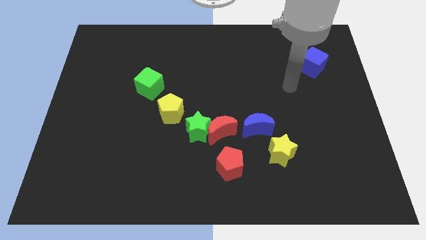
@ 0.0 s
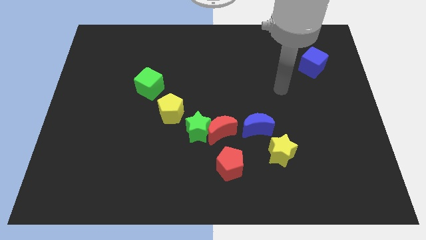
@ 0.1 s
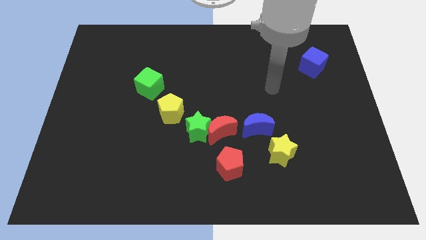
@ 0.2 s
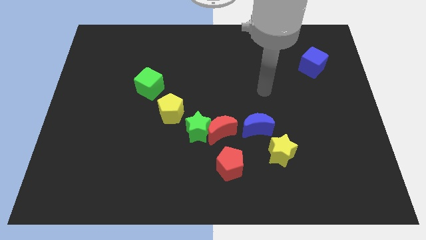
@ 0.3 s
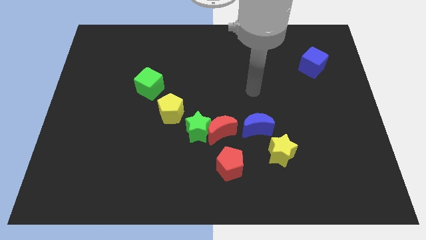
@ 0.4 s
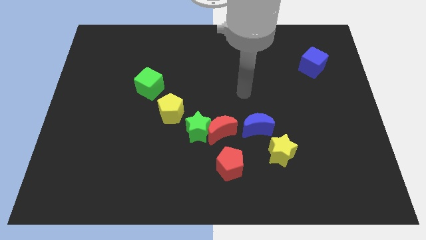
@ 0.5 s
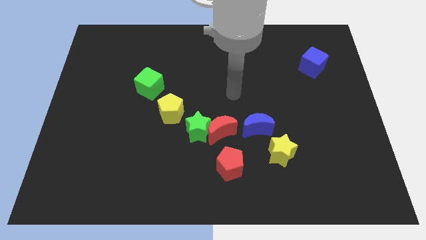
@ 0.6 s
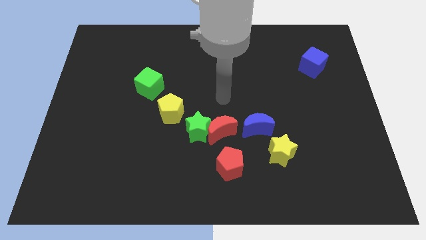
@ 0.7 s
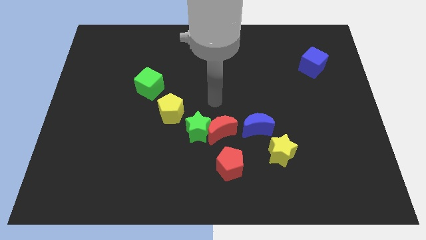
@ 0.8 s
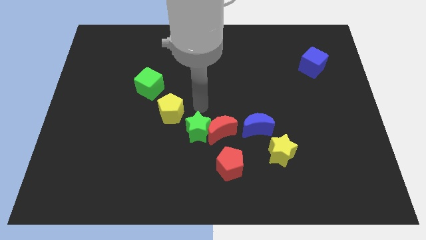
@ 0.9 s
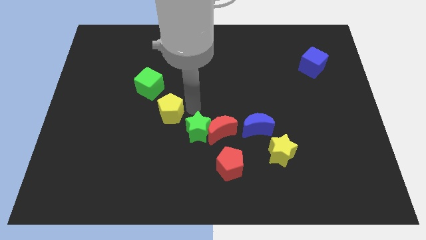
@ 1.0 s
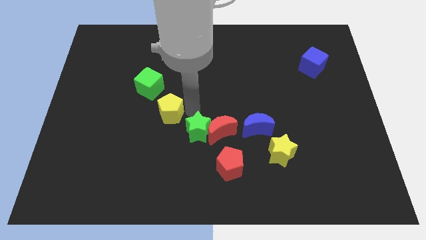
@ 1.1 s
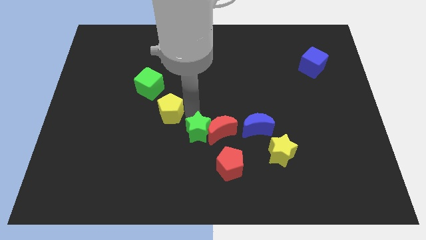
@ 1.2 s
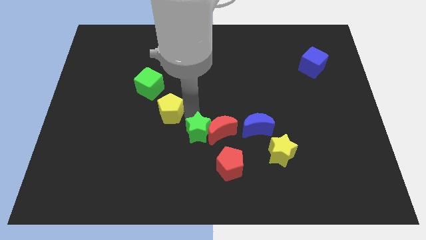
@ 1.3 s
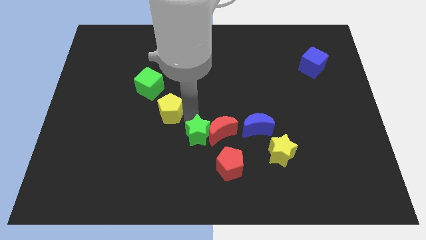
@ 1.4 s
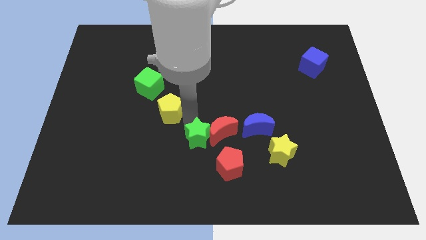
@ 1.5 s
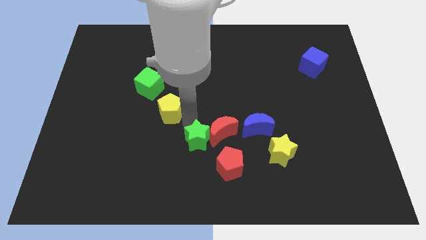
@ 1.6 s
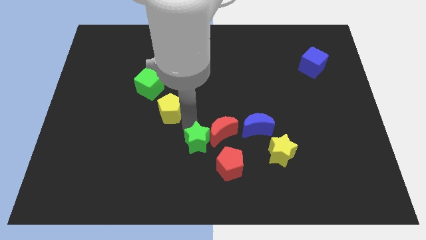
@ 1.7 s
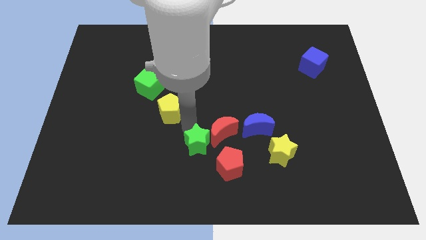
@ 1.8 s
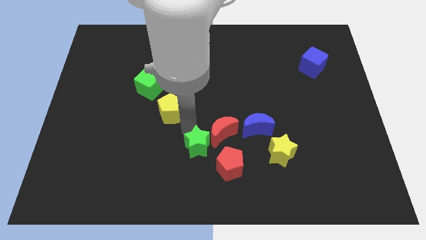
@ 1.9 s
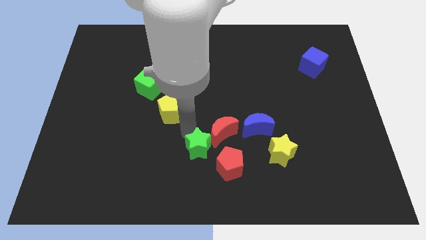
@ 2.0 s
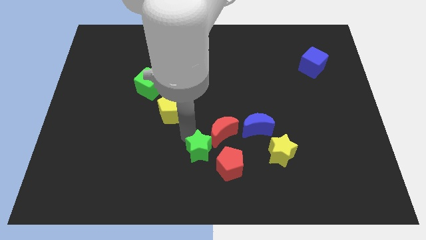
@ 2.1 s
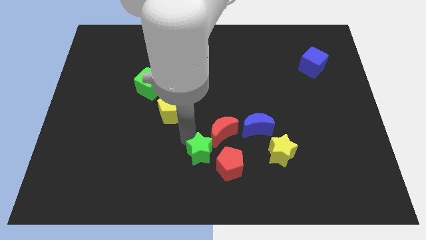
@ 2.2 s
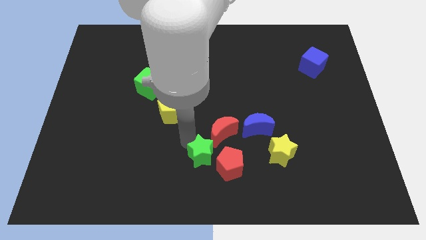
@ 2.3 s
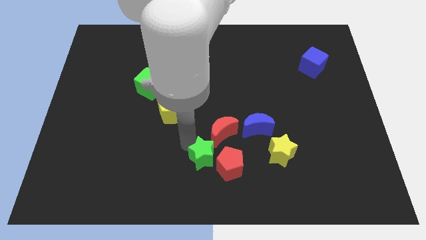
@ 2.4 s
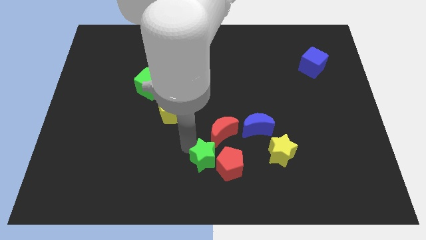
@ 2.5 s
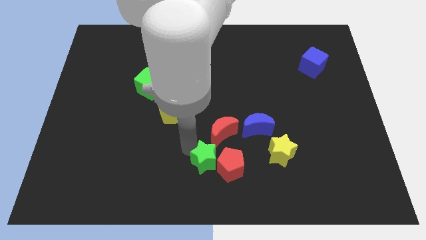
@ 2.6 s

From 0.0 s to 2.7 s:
separate the green star from the red moon and yellow pentagon

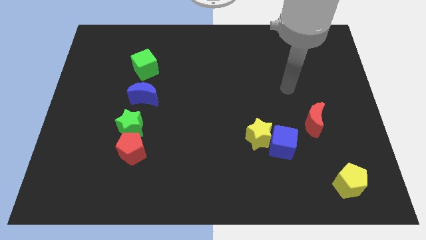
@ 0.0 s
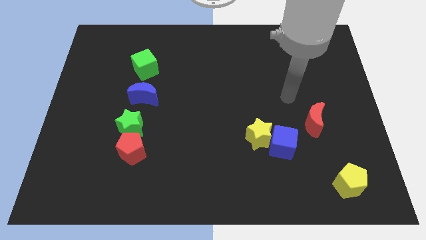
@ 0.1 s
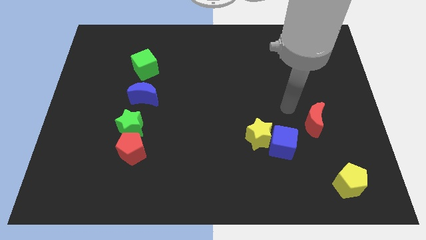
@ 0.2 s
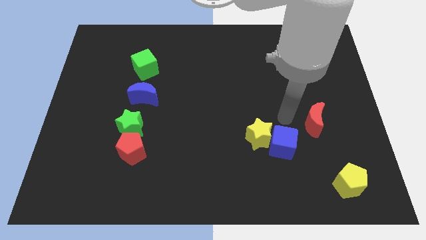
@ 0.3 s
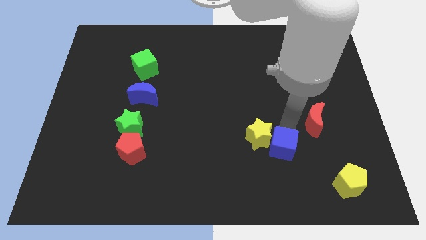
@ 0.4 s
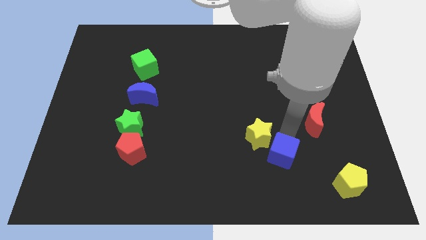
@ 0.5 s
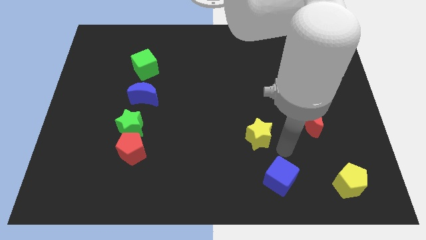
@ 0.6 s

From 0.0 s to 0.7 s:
move the yellow star away from the blue cube

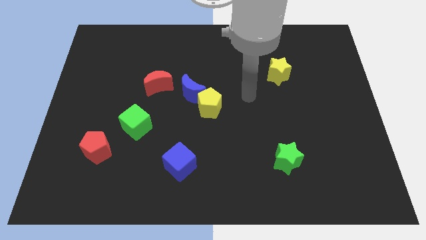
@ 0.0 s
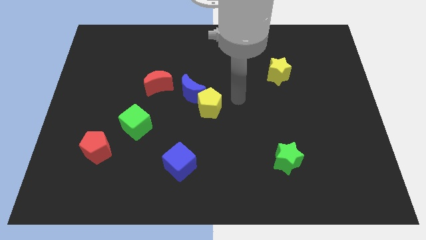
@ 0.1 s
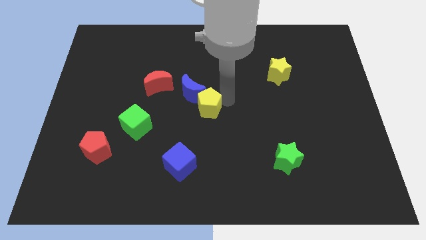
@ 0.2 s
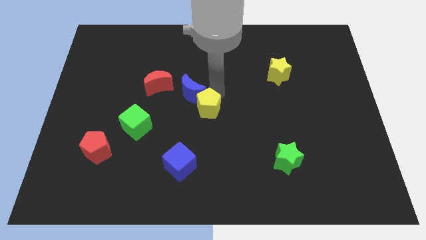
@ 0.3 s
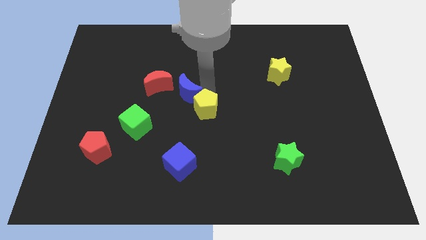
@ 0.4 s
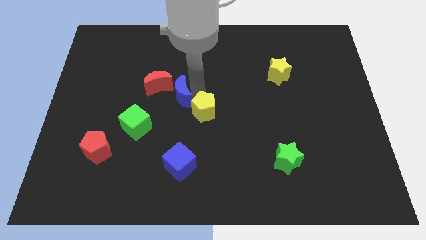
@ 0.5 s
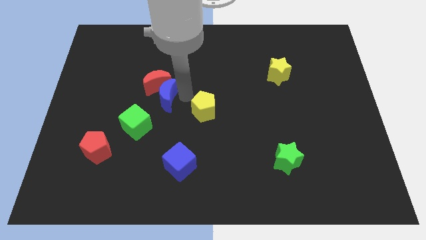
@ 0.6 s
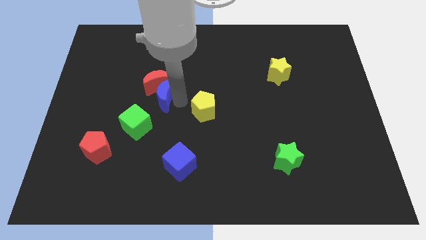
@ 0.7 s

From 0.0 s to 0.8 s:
separate the yellow pentagon from the blue moon

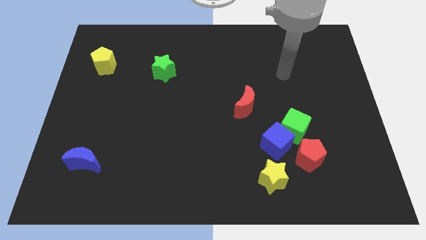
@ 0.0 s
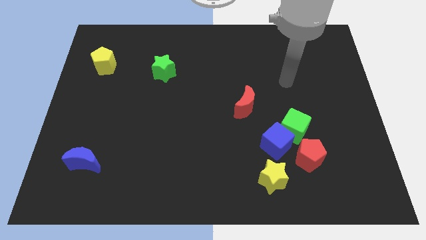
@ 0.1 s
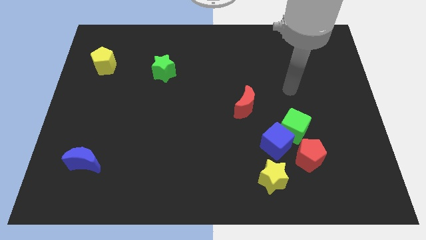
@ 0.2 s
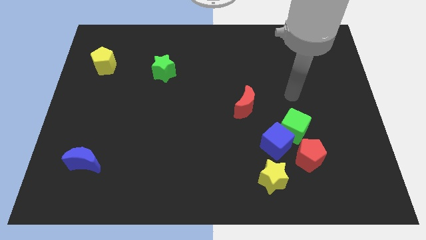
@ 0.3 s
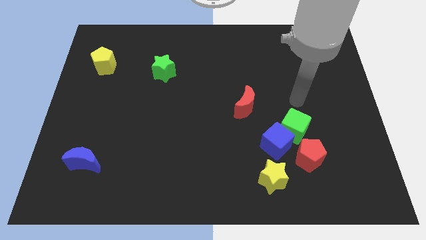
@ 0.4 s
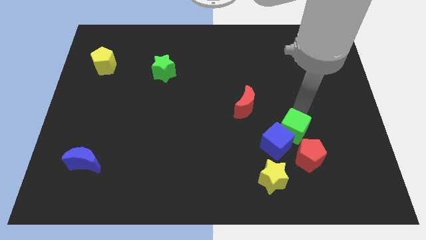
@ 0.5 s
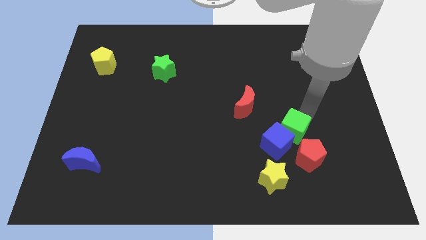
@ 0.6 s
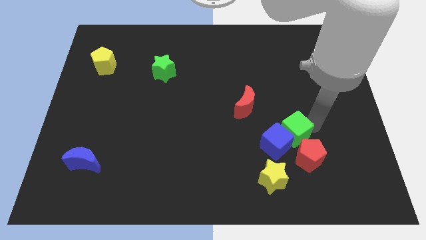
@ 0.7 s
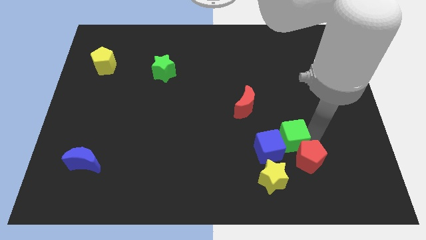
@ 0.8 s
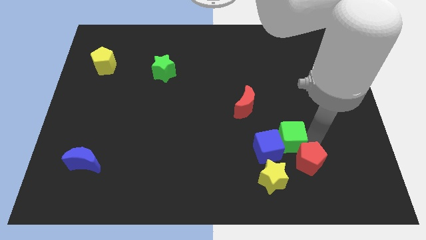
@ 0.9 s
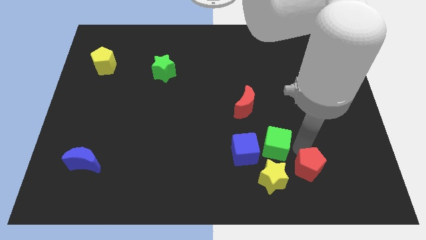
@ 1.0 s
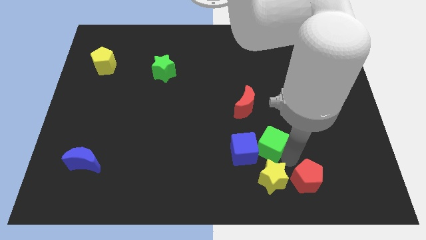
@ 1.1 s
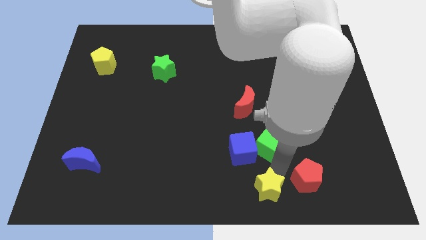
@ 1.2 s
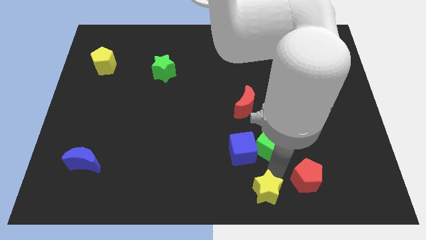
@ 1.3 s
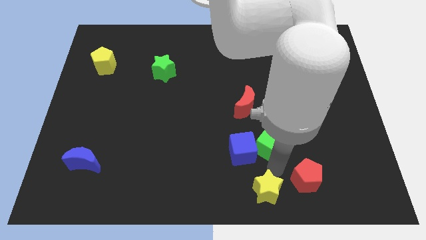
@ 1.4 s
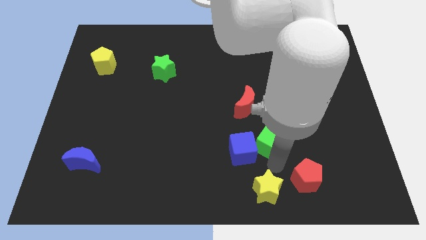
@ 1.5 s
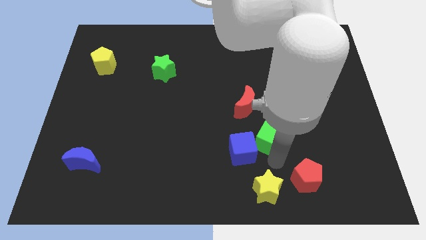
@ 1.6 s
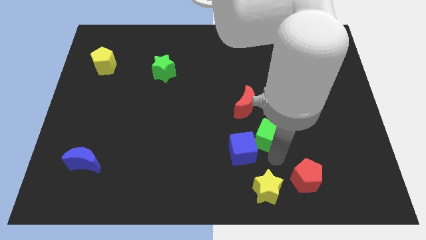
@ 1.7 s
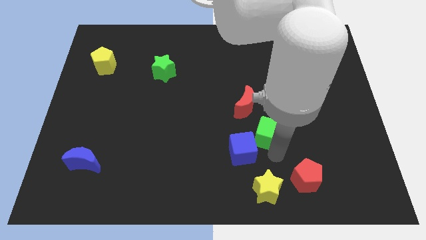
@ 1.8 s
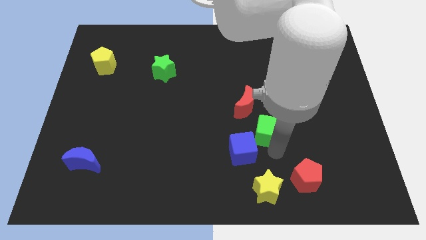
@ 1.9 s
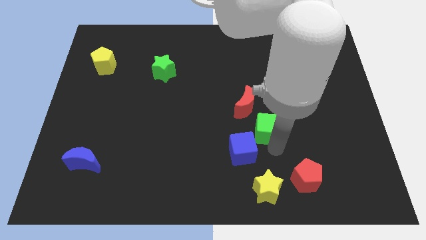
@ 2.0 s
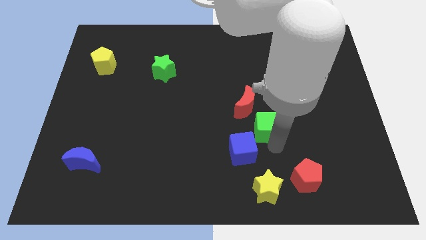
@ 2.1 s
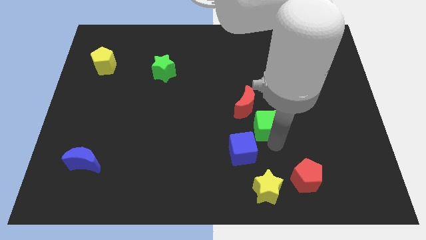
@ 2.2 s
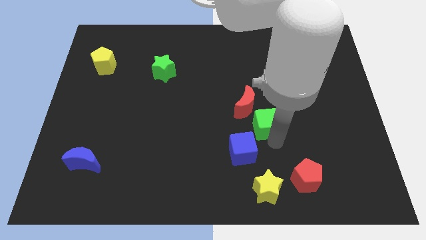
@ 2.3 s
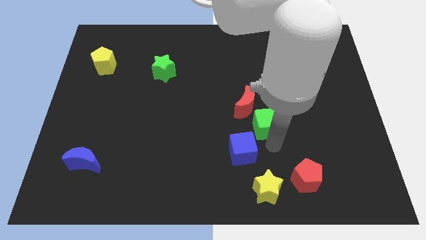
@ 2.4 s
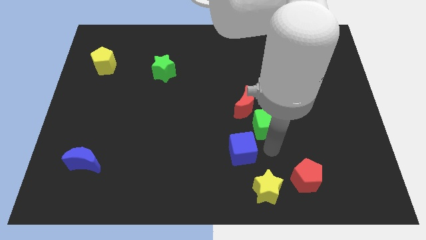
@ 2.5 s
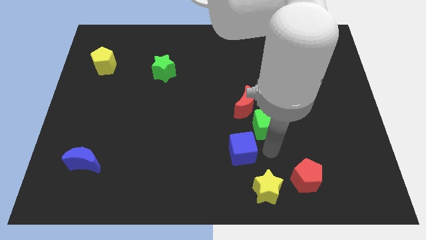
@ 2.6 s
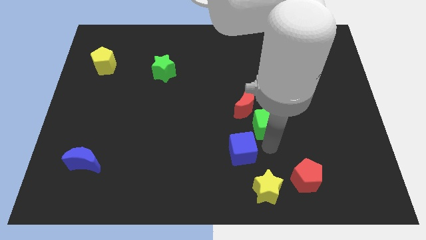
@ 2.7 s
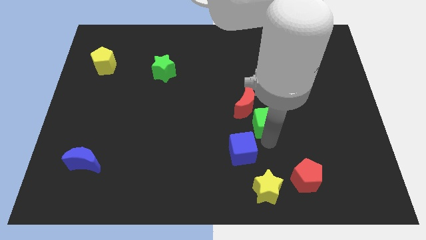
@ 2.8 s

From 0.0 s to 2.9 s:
move the green cube away from the blue cube and red pentagon

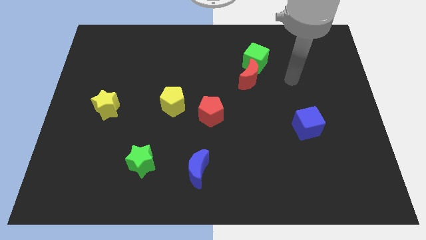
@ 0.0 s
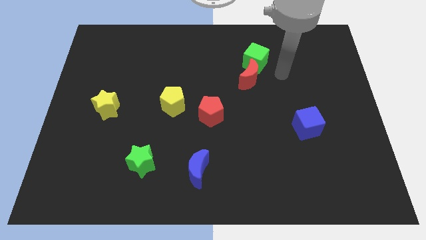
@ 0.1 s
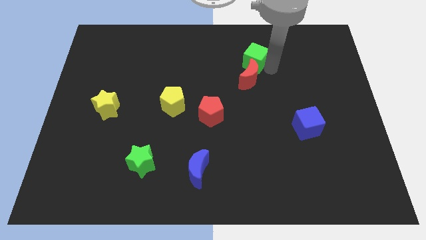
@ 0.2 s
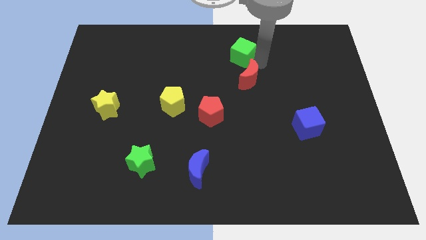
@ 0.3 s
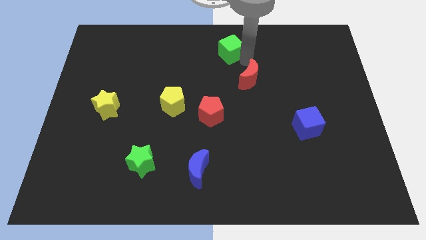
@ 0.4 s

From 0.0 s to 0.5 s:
separate the red moon from the green cube

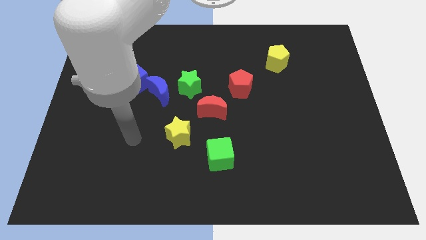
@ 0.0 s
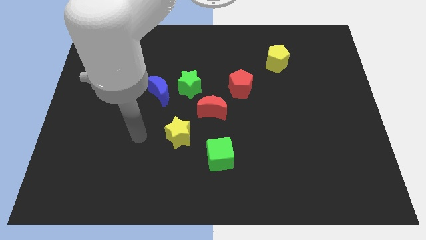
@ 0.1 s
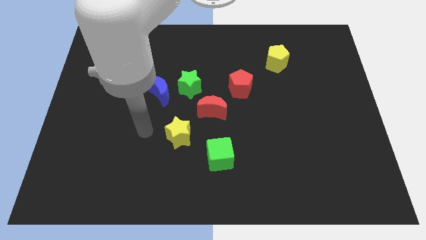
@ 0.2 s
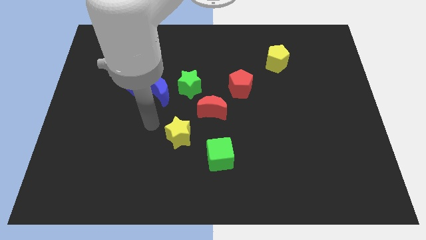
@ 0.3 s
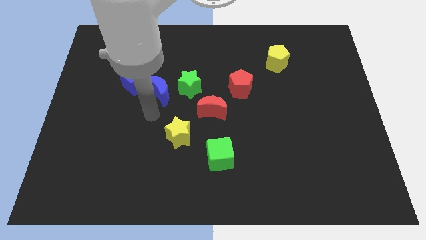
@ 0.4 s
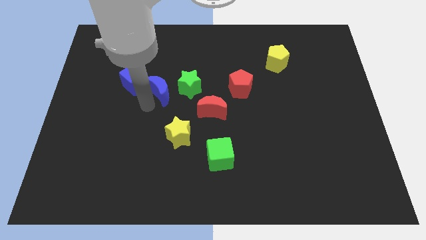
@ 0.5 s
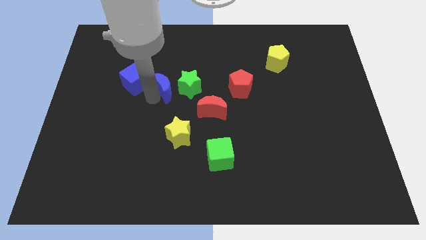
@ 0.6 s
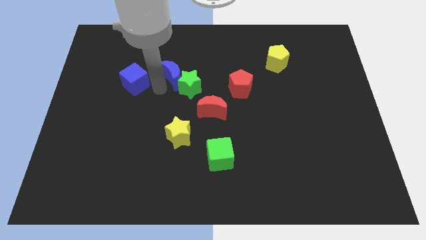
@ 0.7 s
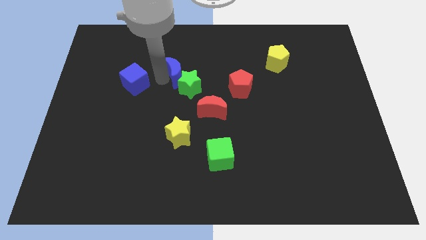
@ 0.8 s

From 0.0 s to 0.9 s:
pull the blue cube apart from the blue moon

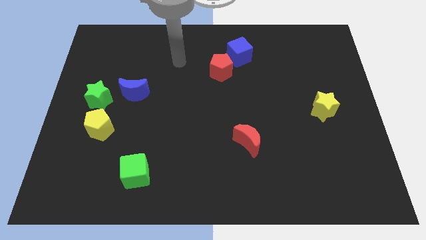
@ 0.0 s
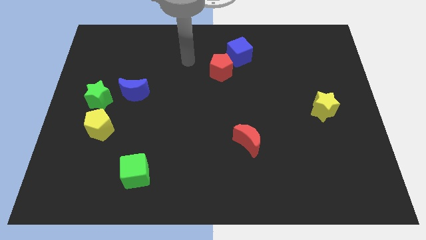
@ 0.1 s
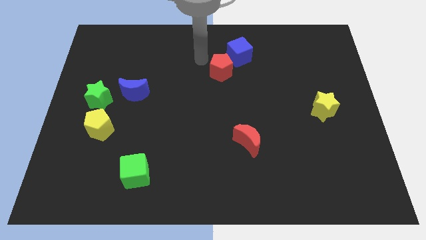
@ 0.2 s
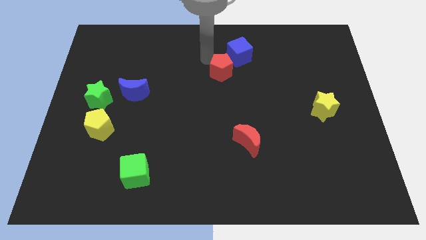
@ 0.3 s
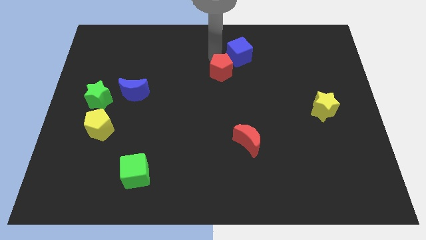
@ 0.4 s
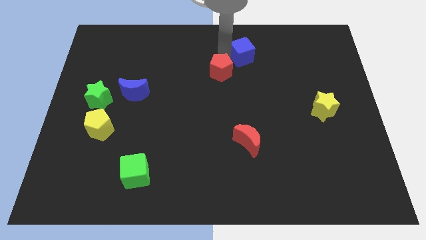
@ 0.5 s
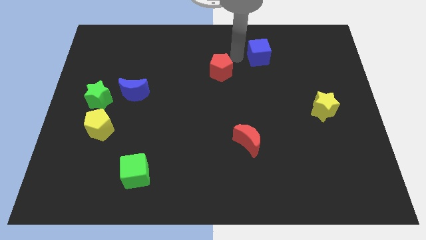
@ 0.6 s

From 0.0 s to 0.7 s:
separate the red pentagon from the blue cube

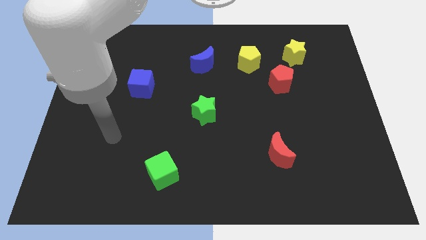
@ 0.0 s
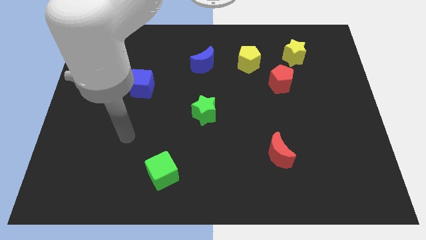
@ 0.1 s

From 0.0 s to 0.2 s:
separate the yellow pentagon from the red pentagon
